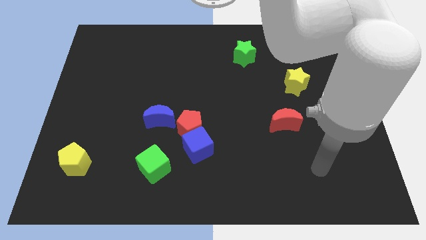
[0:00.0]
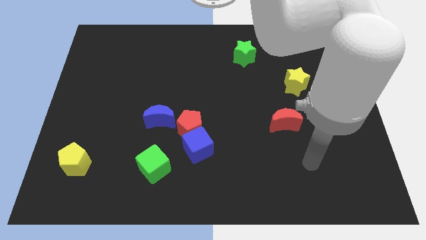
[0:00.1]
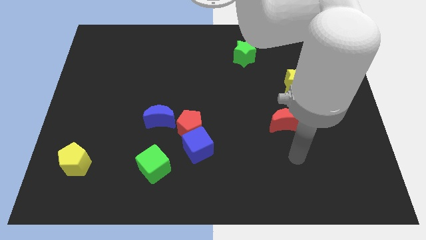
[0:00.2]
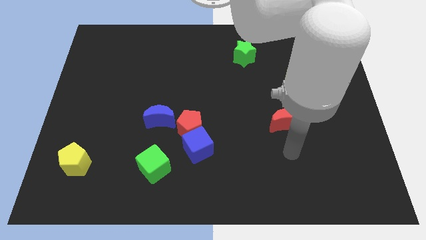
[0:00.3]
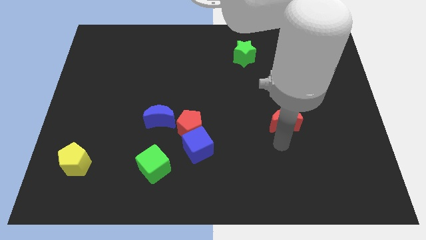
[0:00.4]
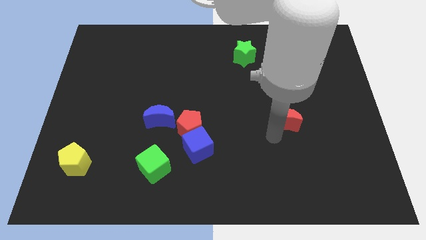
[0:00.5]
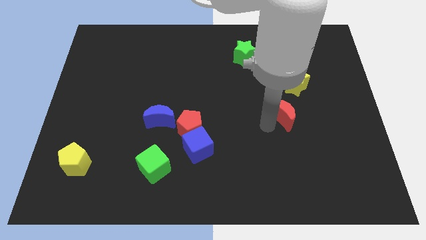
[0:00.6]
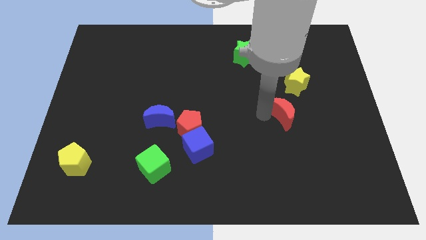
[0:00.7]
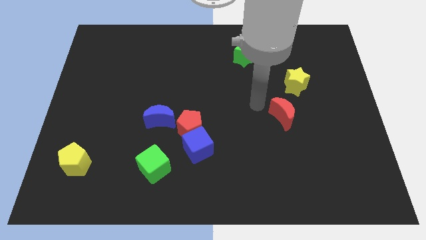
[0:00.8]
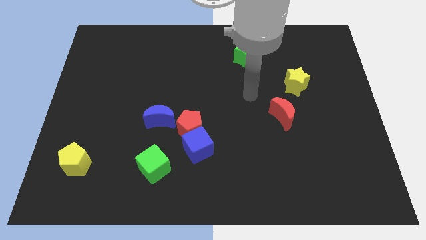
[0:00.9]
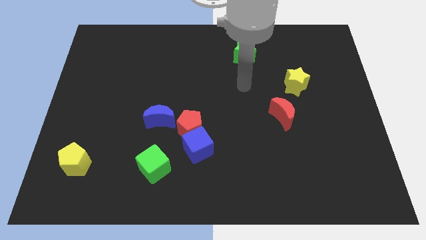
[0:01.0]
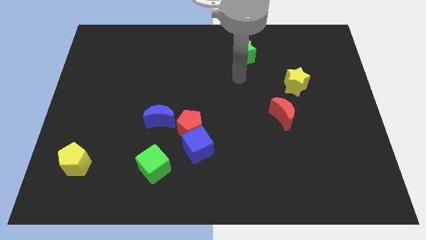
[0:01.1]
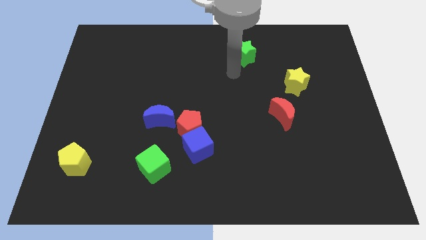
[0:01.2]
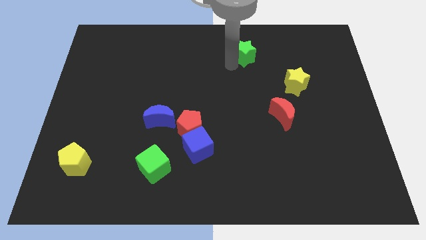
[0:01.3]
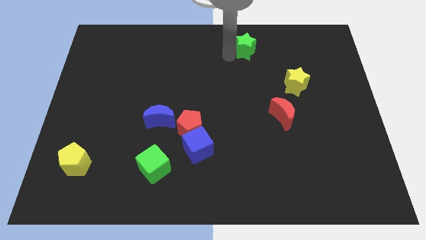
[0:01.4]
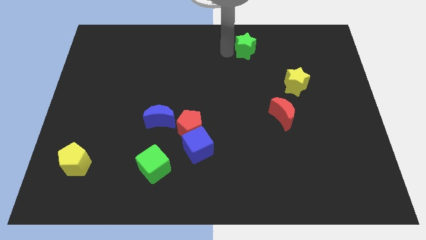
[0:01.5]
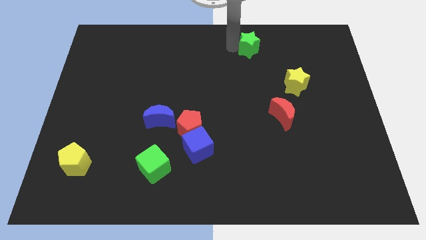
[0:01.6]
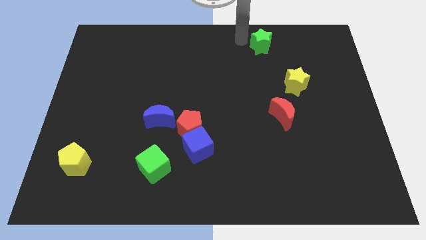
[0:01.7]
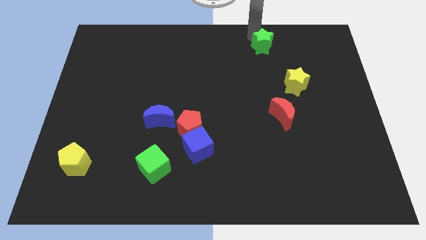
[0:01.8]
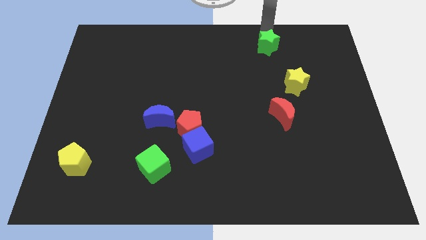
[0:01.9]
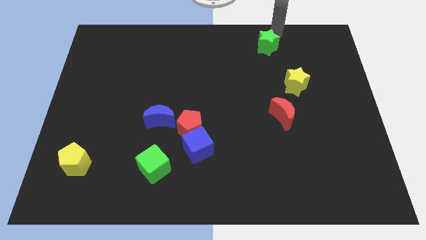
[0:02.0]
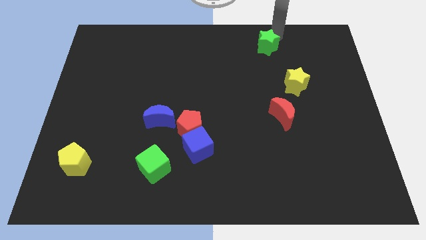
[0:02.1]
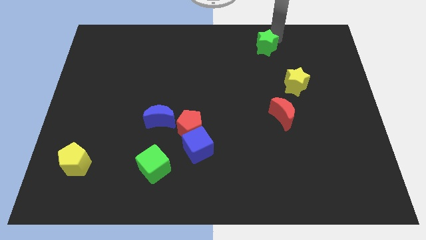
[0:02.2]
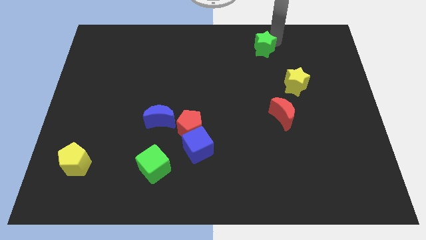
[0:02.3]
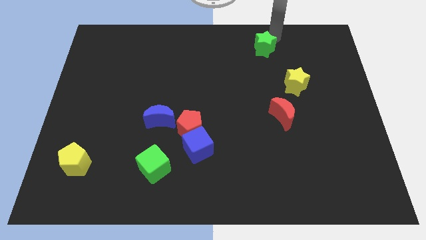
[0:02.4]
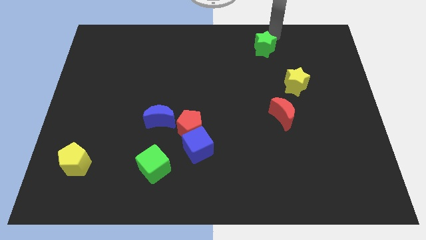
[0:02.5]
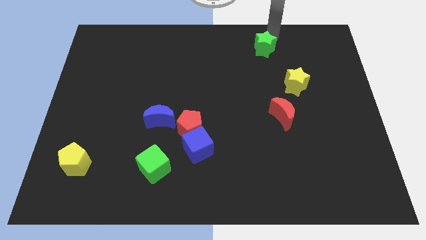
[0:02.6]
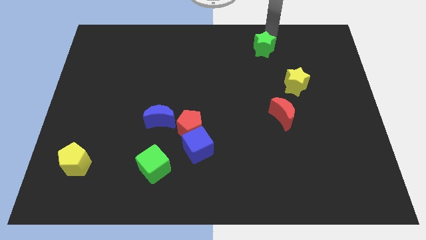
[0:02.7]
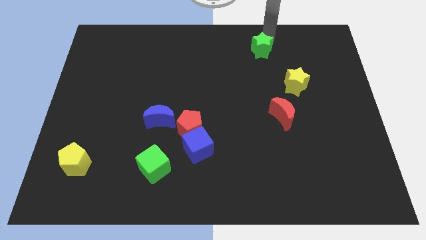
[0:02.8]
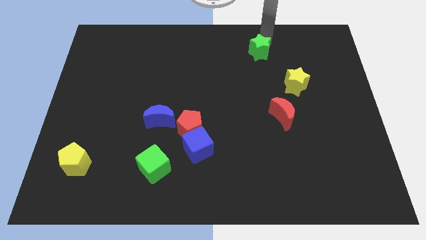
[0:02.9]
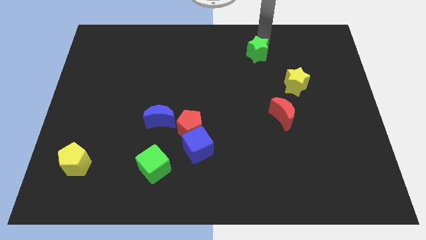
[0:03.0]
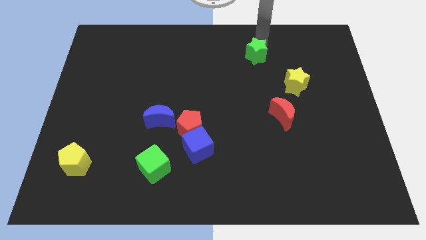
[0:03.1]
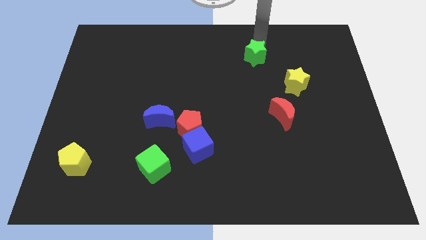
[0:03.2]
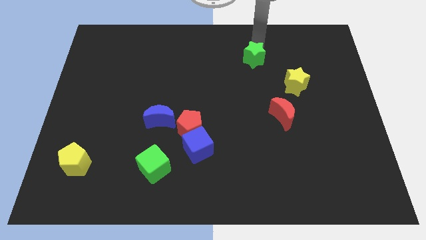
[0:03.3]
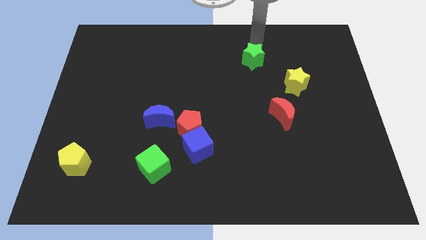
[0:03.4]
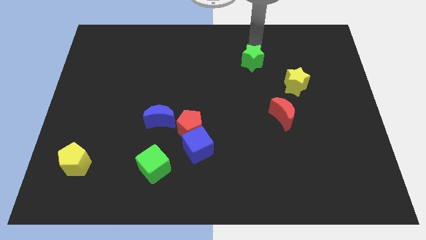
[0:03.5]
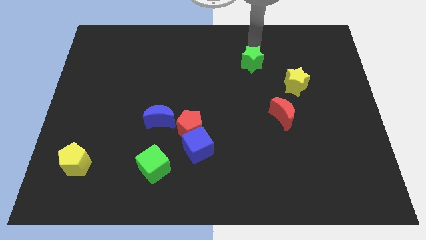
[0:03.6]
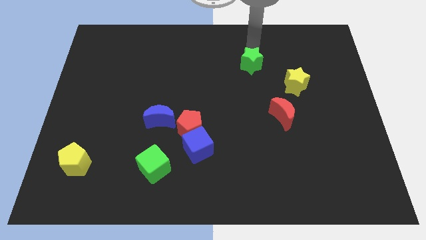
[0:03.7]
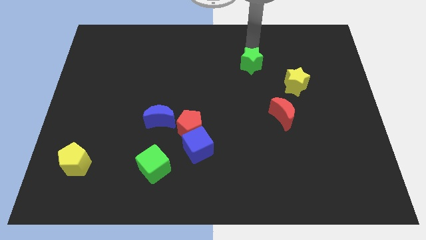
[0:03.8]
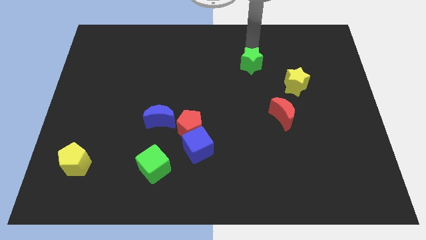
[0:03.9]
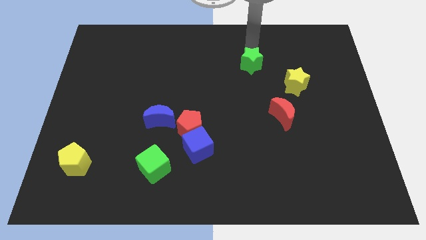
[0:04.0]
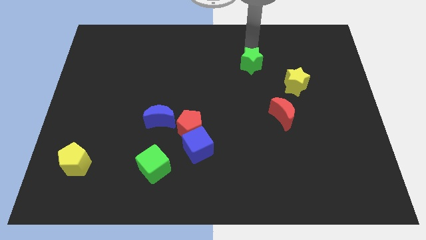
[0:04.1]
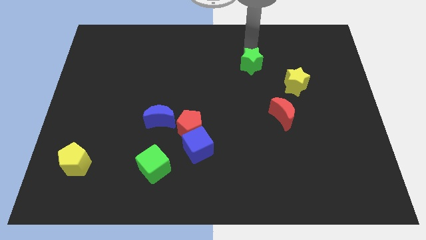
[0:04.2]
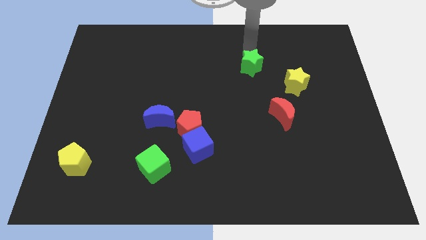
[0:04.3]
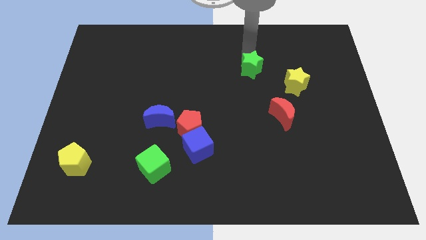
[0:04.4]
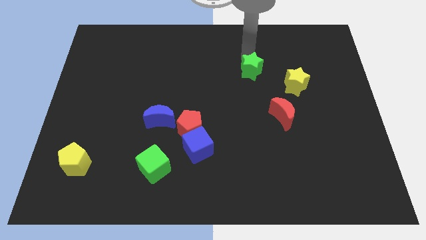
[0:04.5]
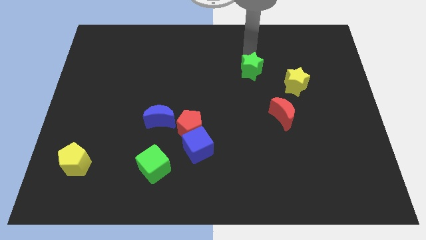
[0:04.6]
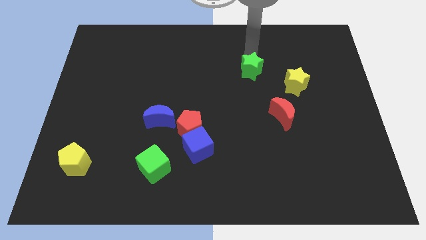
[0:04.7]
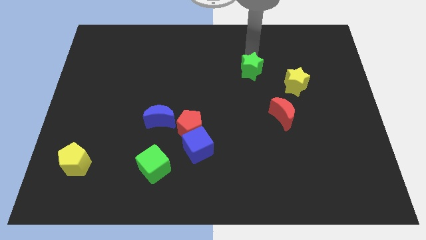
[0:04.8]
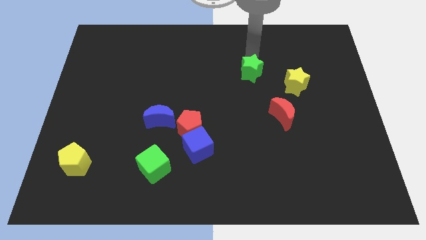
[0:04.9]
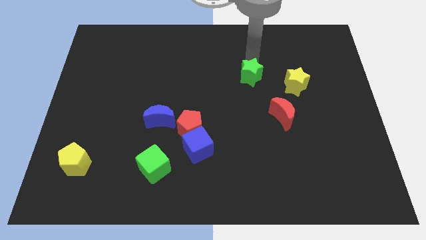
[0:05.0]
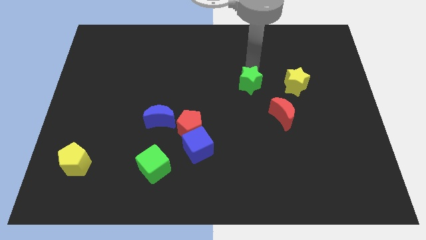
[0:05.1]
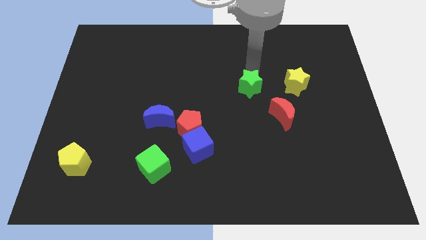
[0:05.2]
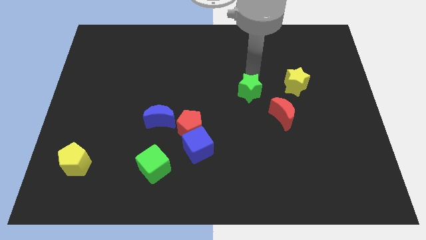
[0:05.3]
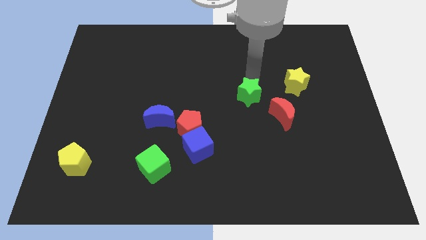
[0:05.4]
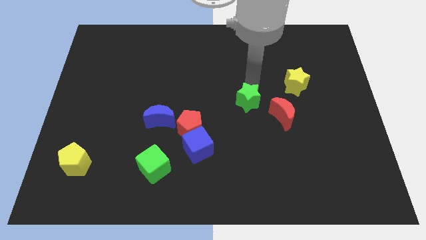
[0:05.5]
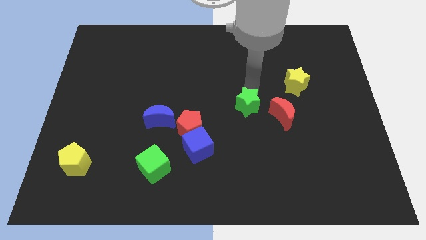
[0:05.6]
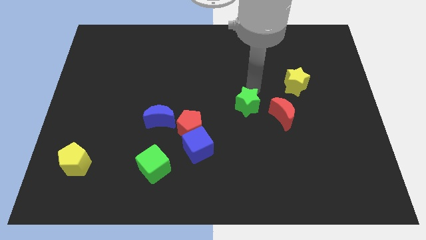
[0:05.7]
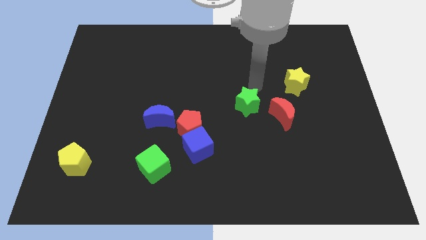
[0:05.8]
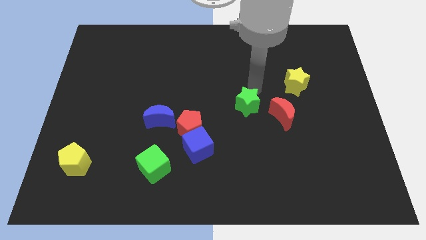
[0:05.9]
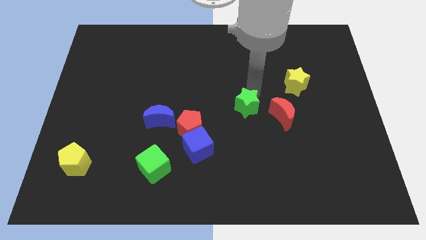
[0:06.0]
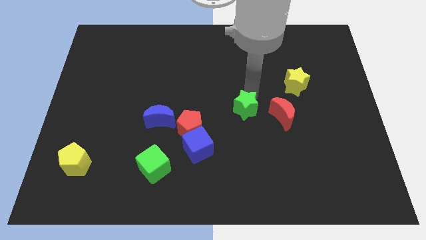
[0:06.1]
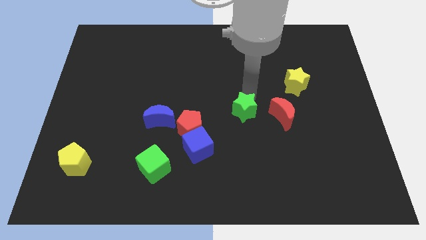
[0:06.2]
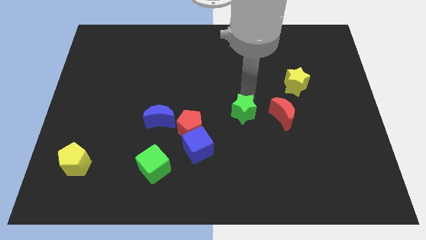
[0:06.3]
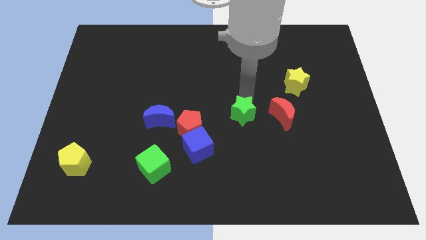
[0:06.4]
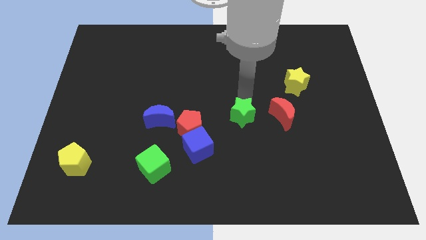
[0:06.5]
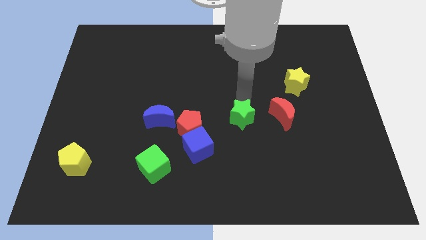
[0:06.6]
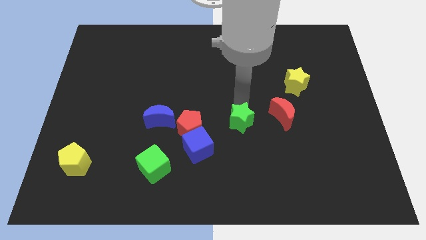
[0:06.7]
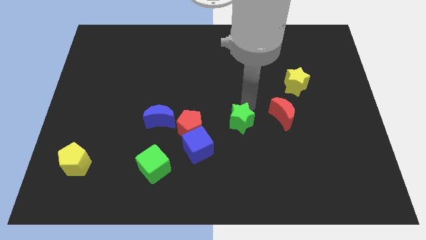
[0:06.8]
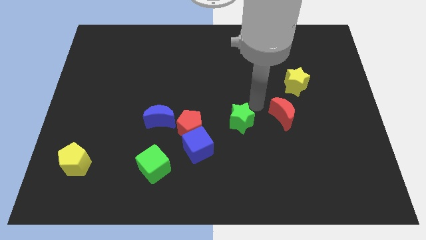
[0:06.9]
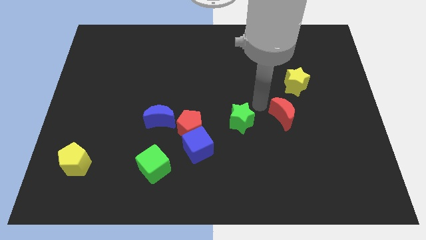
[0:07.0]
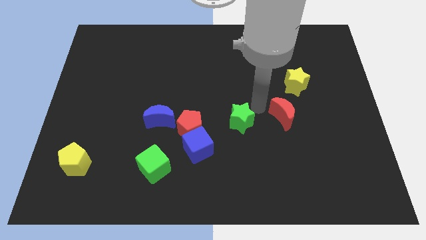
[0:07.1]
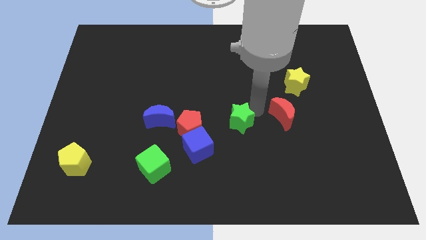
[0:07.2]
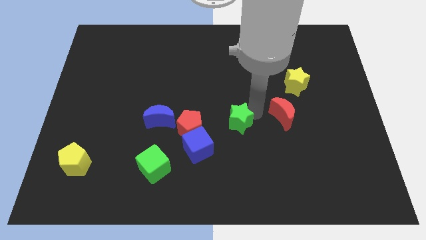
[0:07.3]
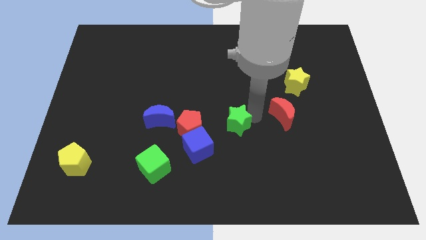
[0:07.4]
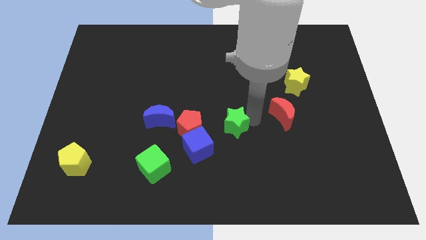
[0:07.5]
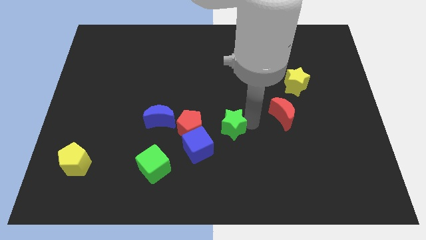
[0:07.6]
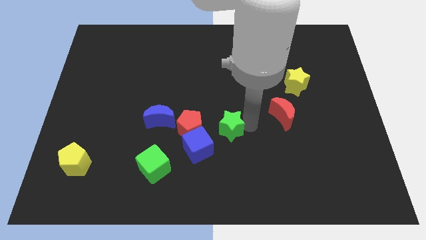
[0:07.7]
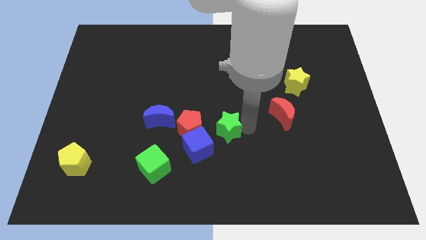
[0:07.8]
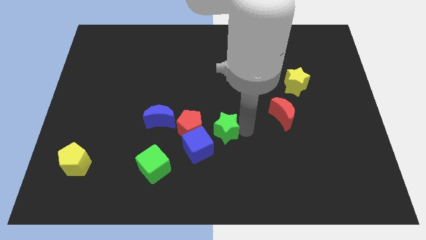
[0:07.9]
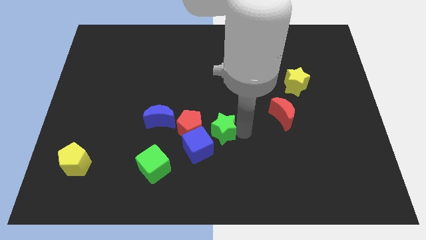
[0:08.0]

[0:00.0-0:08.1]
slide the green star to the bottom right of the red pentagon
